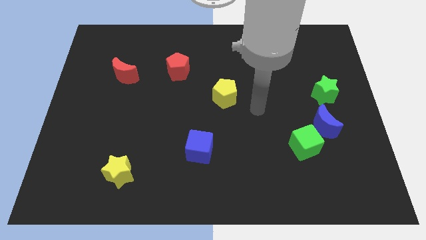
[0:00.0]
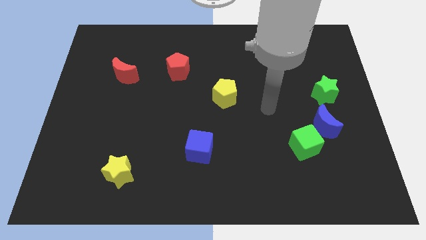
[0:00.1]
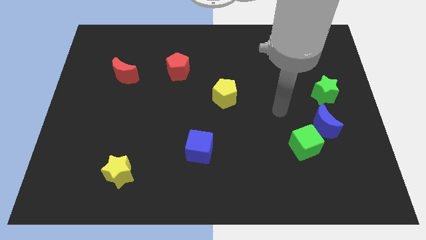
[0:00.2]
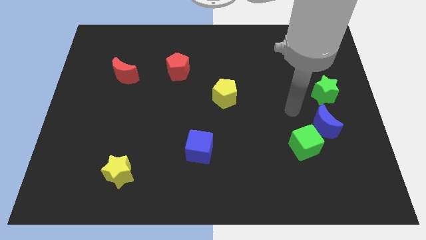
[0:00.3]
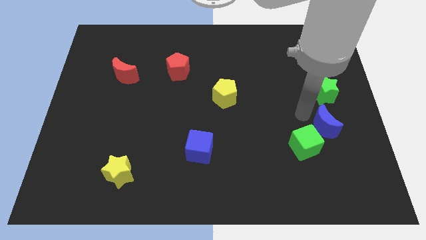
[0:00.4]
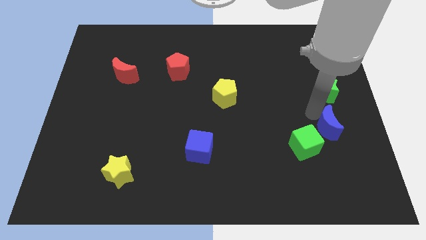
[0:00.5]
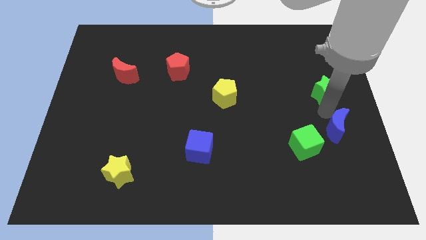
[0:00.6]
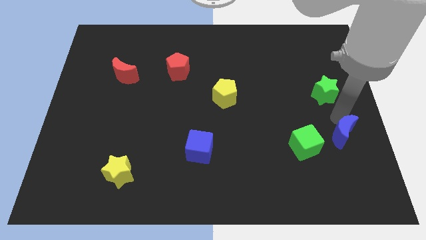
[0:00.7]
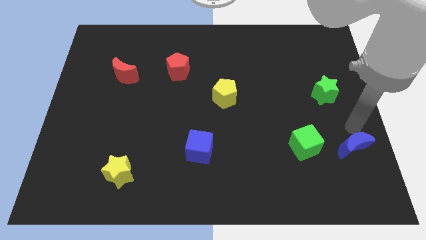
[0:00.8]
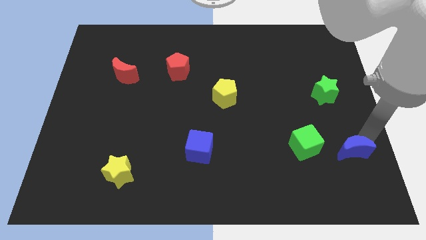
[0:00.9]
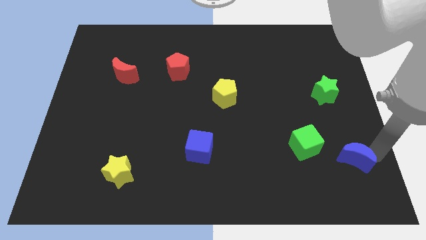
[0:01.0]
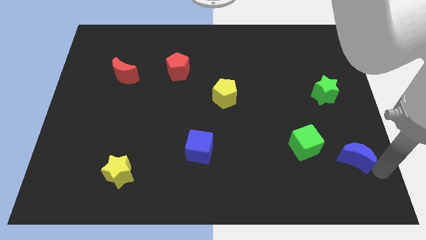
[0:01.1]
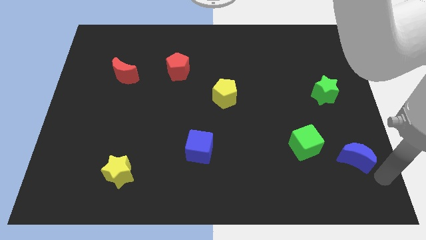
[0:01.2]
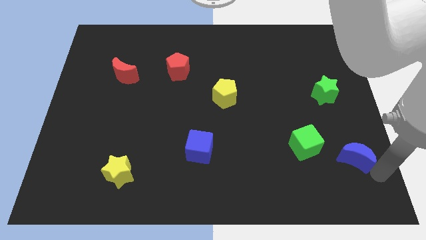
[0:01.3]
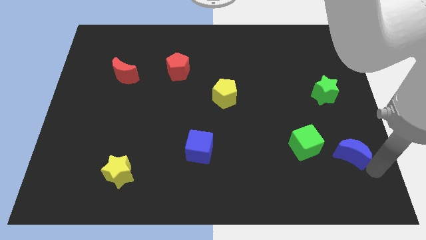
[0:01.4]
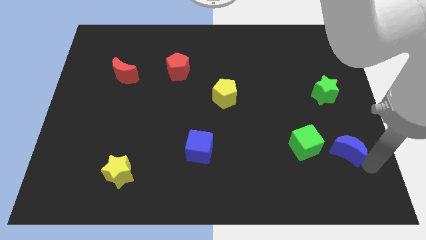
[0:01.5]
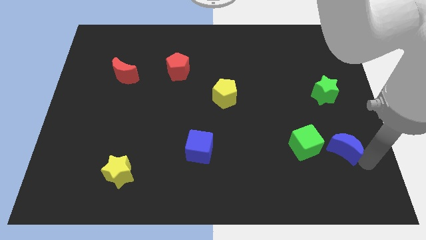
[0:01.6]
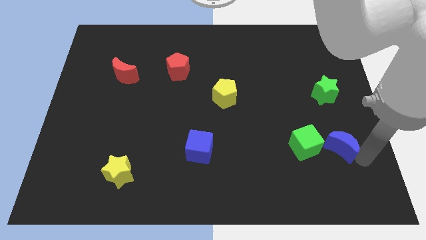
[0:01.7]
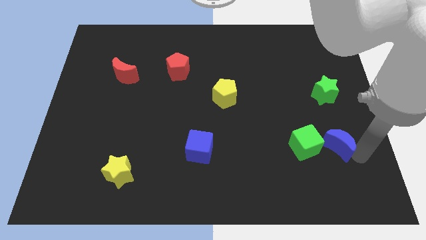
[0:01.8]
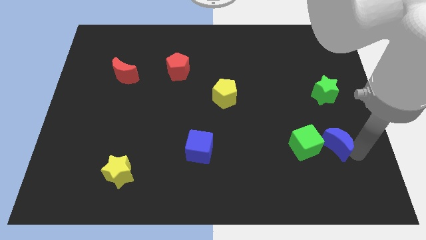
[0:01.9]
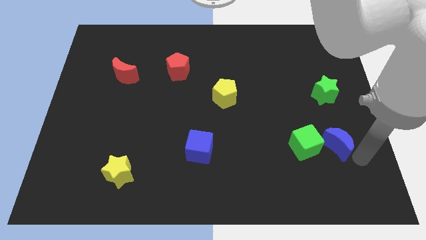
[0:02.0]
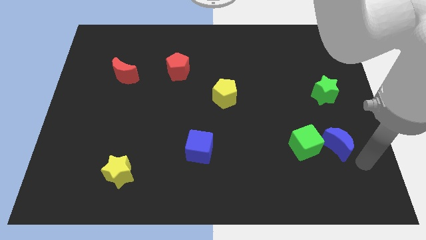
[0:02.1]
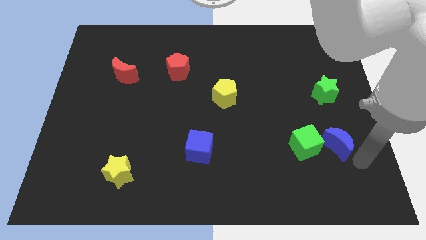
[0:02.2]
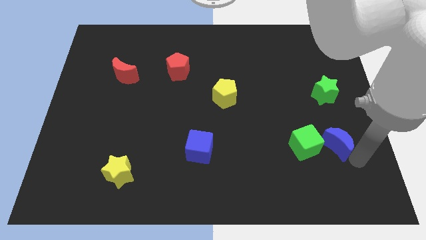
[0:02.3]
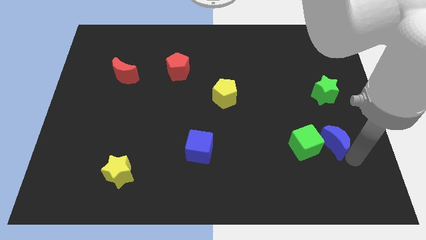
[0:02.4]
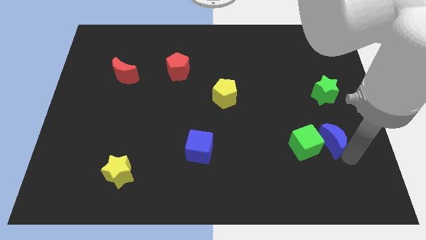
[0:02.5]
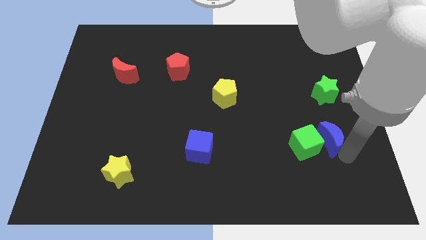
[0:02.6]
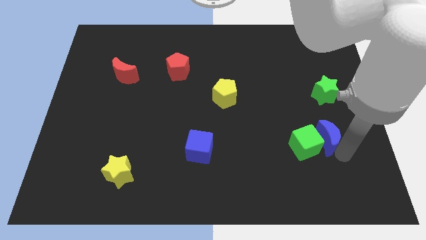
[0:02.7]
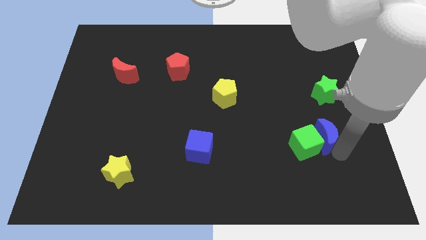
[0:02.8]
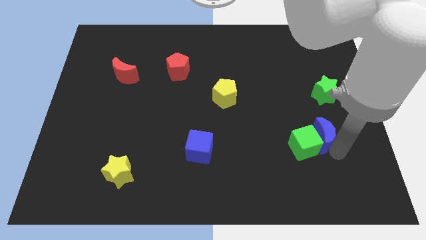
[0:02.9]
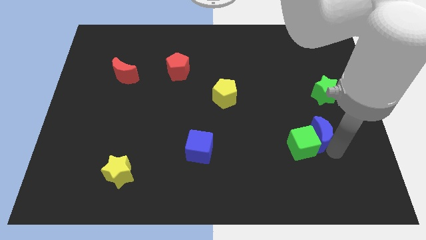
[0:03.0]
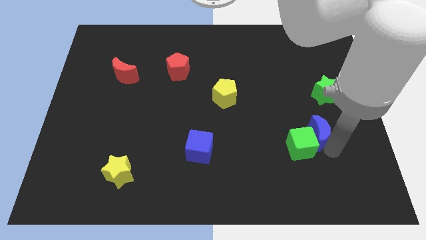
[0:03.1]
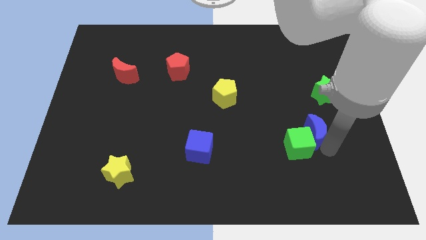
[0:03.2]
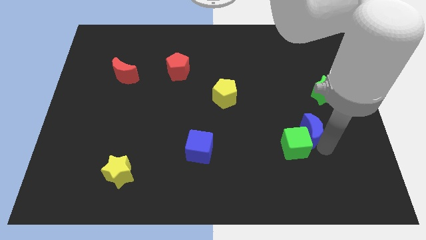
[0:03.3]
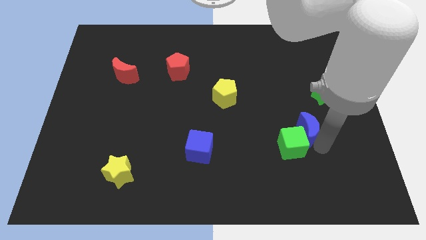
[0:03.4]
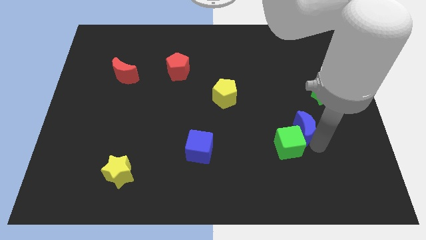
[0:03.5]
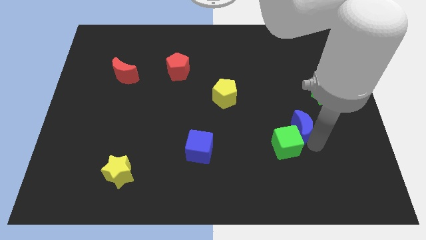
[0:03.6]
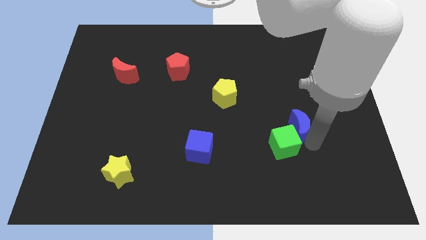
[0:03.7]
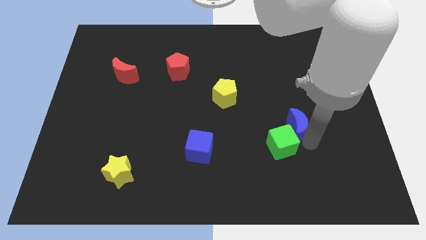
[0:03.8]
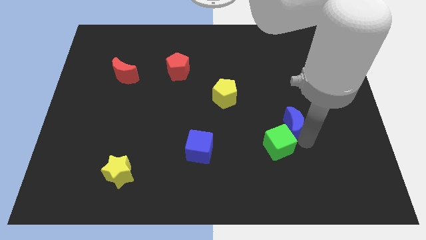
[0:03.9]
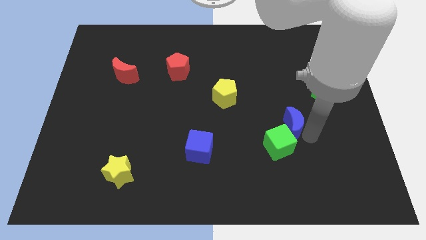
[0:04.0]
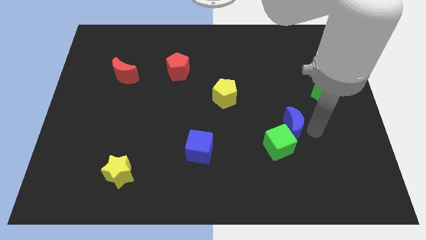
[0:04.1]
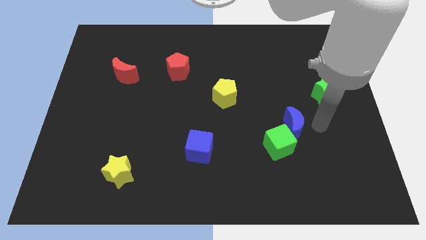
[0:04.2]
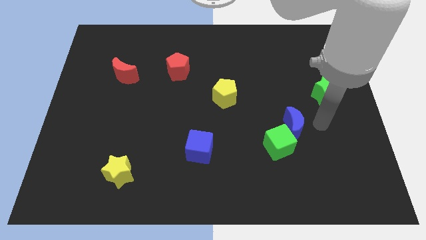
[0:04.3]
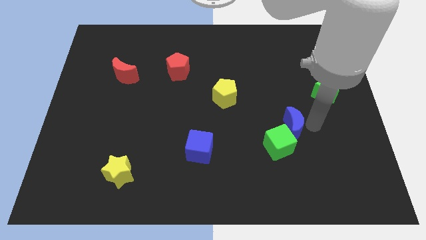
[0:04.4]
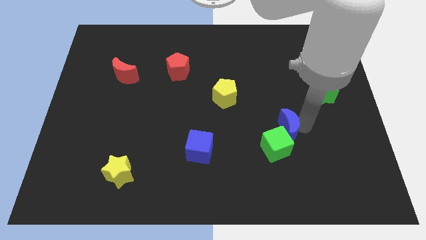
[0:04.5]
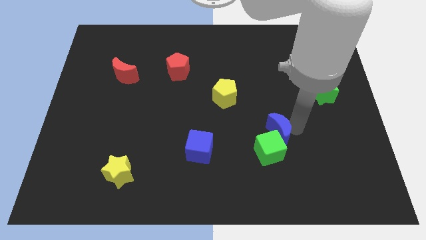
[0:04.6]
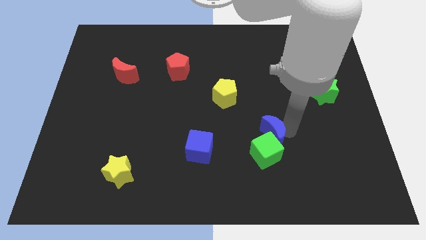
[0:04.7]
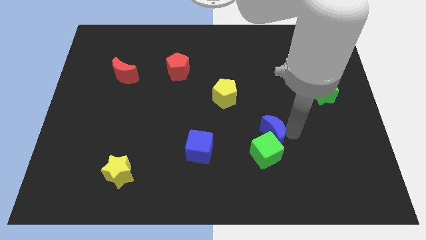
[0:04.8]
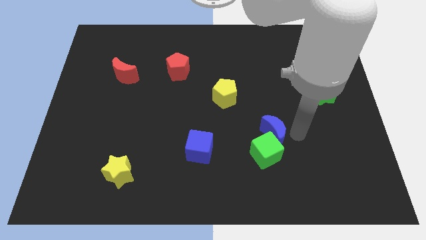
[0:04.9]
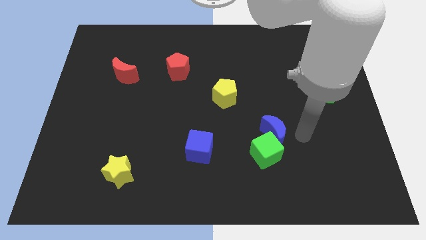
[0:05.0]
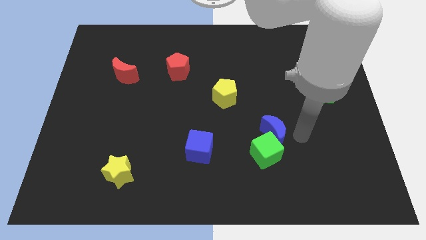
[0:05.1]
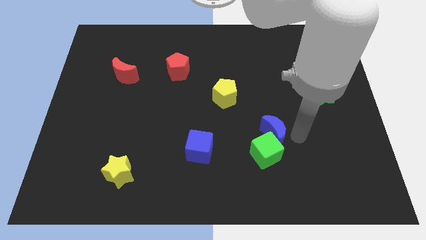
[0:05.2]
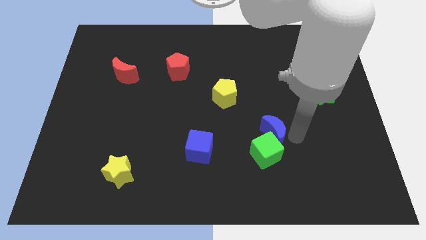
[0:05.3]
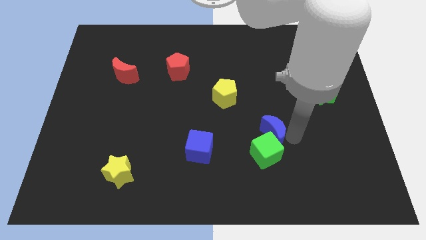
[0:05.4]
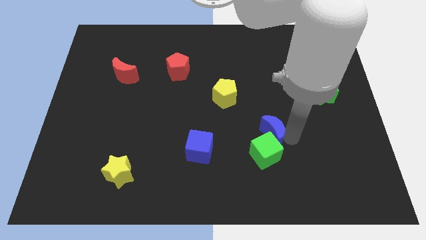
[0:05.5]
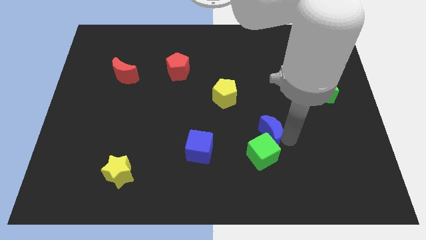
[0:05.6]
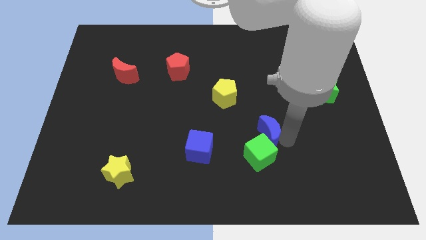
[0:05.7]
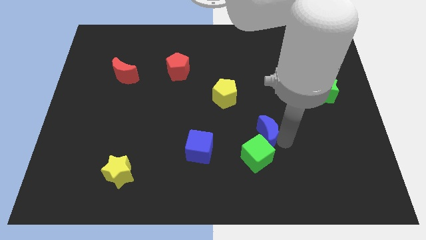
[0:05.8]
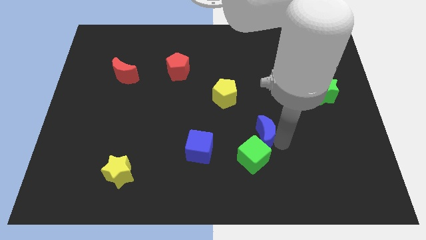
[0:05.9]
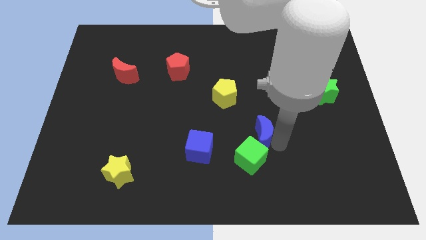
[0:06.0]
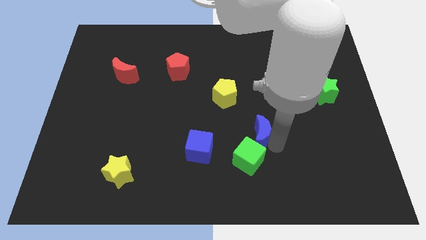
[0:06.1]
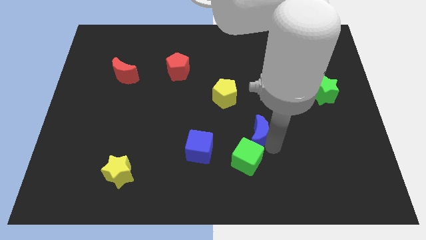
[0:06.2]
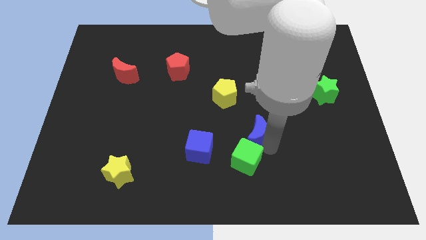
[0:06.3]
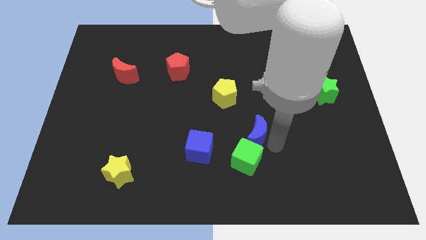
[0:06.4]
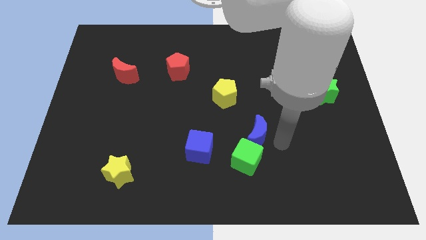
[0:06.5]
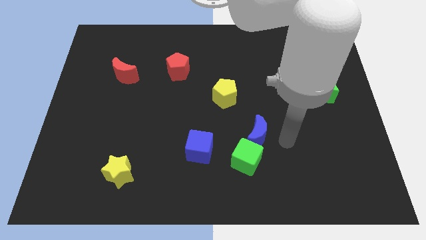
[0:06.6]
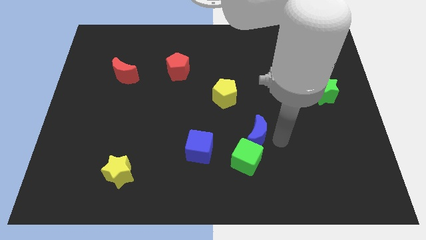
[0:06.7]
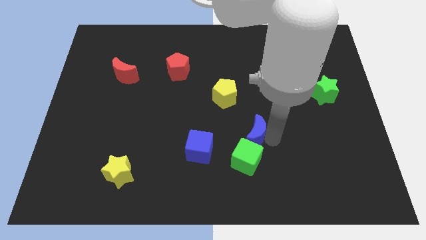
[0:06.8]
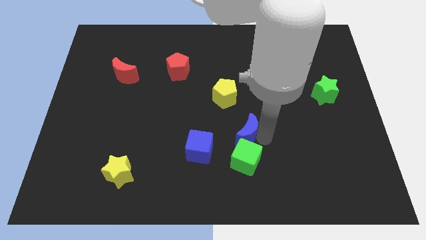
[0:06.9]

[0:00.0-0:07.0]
slide the blue moon to the bottom of the yellow pentagon
